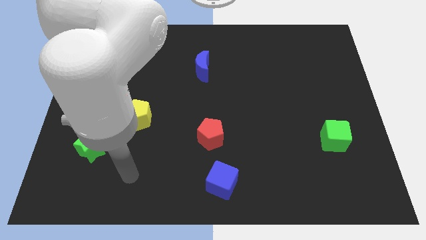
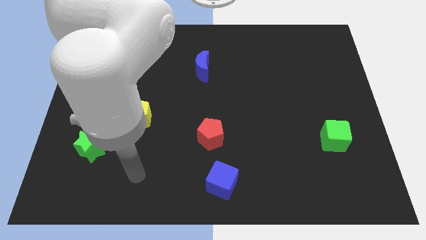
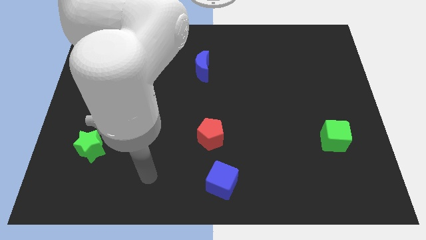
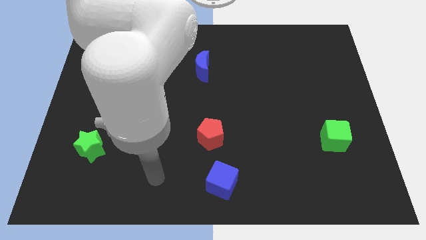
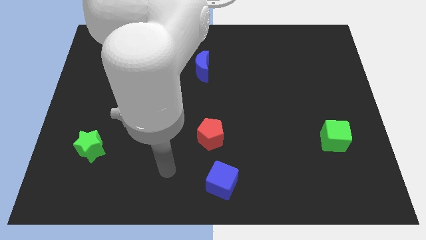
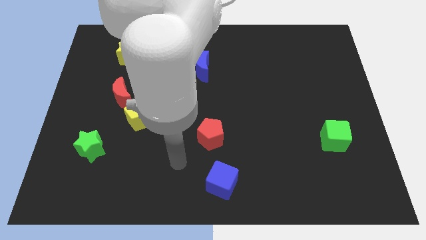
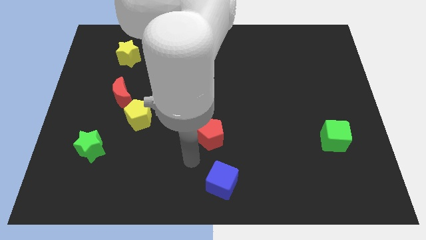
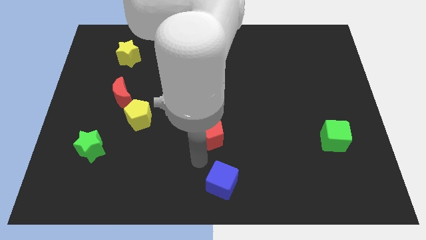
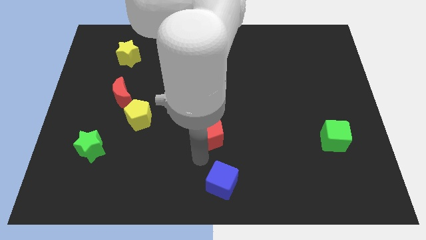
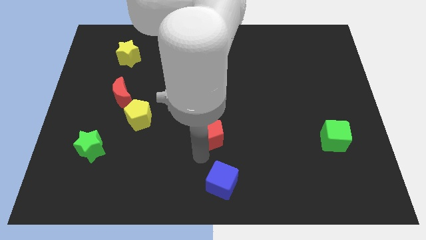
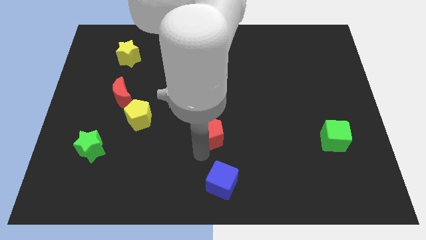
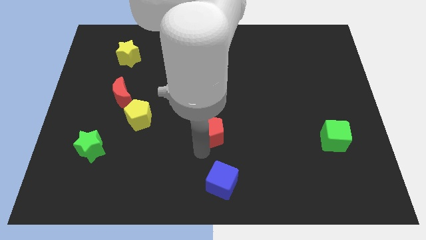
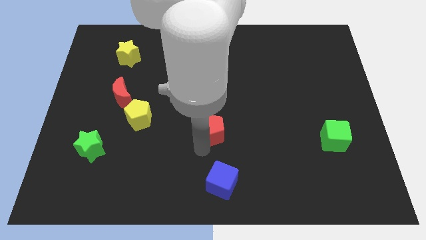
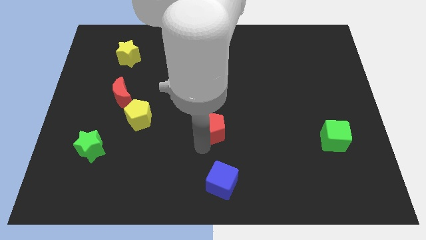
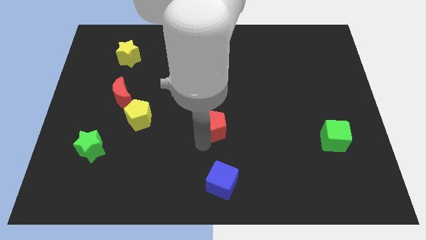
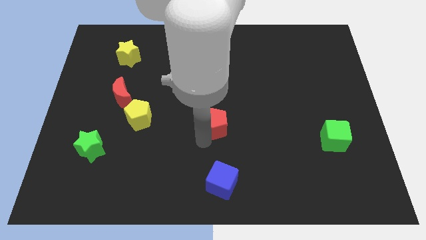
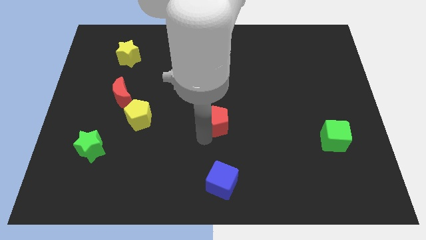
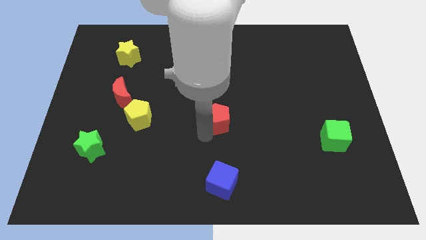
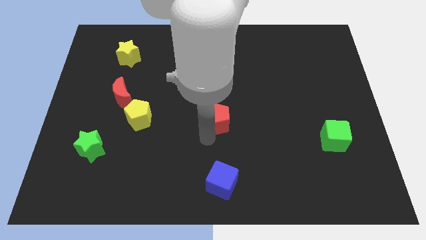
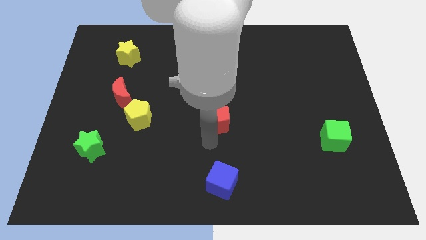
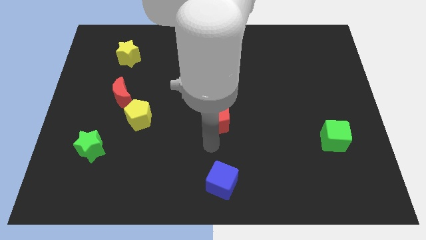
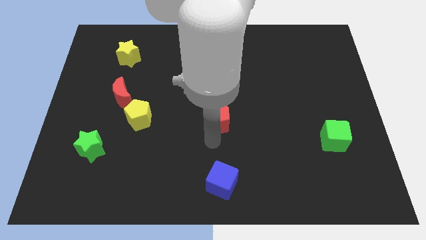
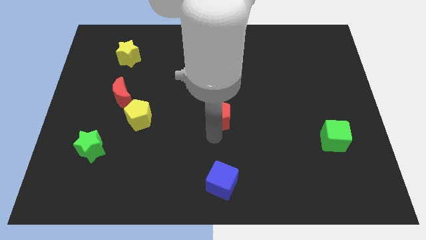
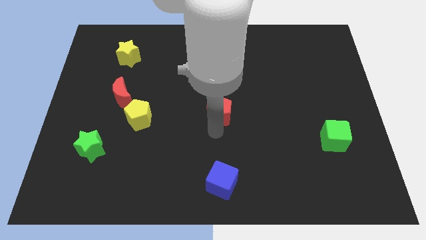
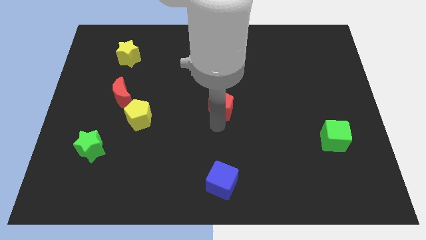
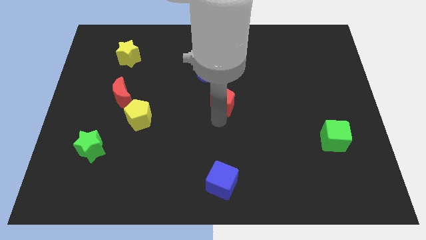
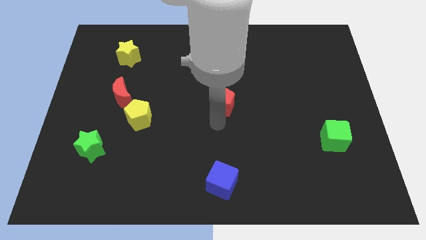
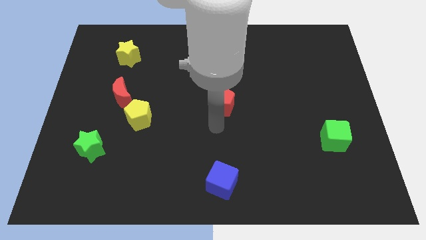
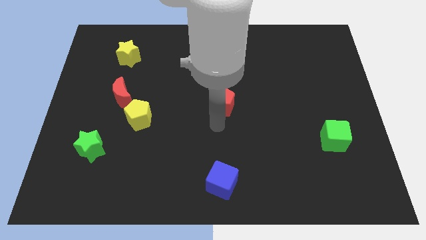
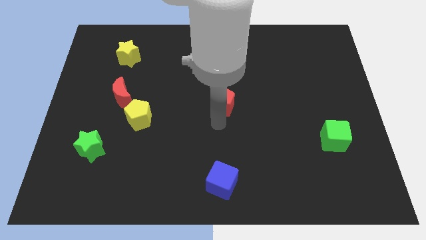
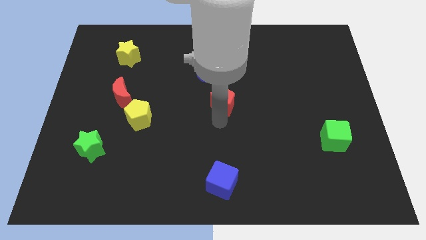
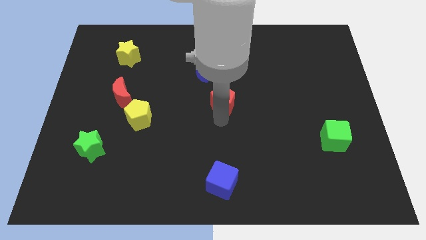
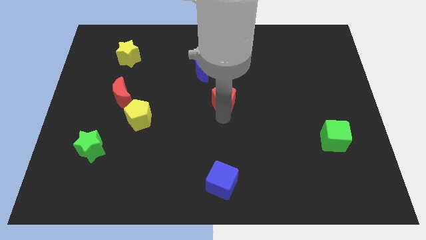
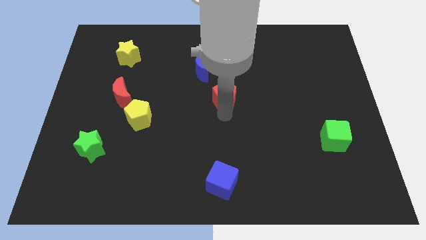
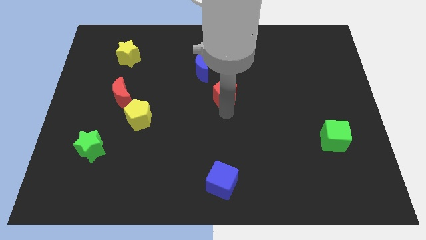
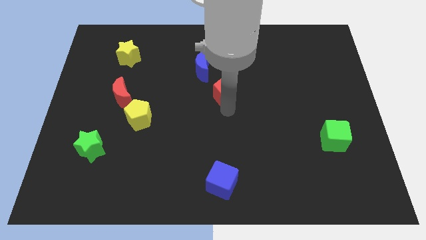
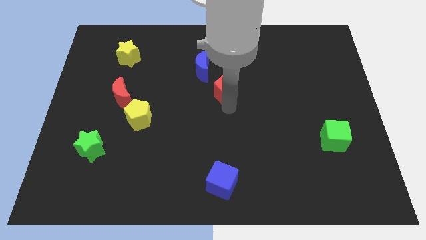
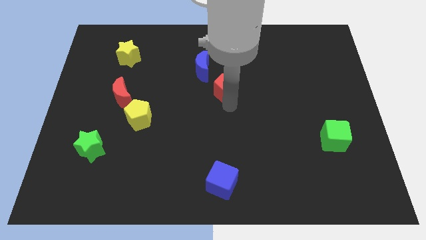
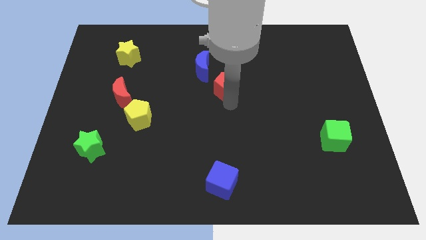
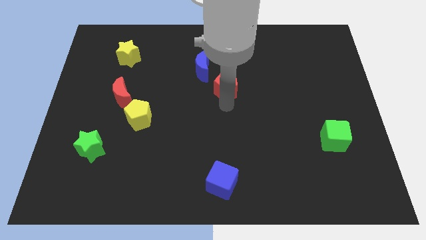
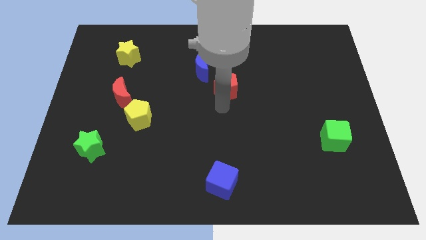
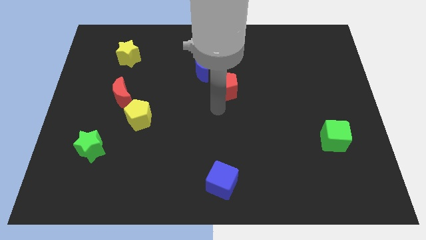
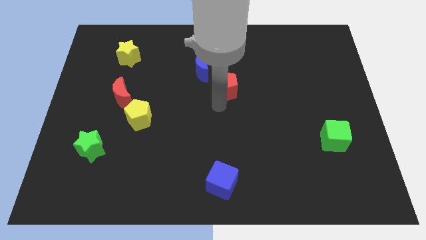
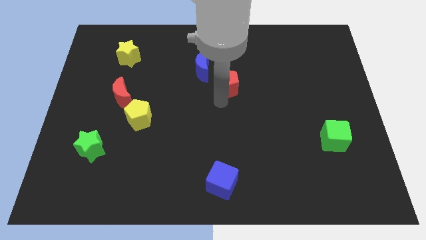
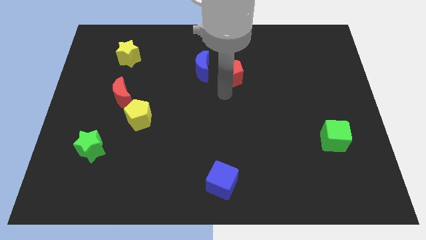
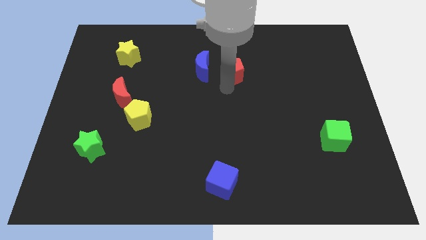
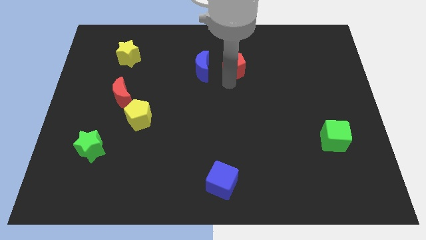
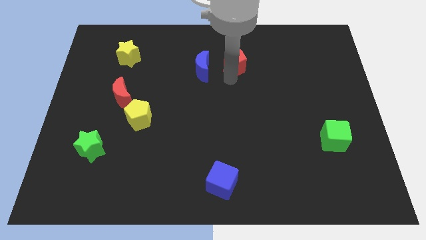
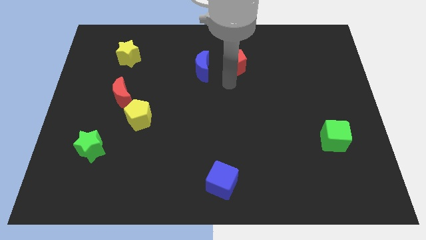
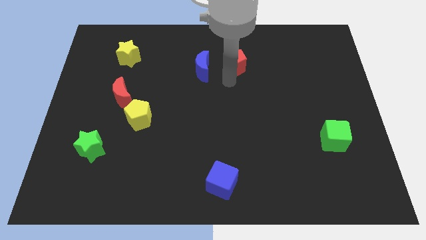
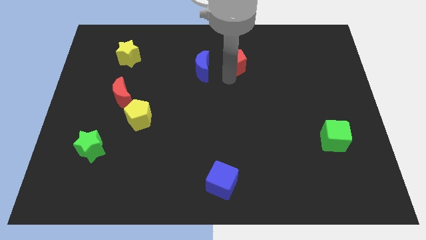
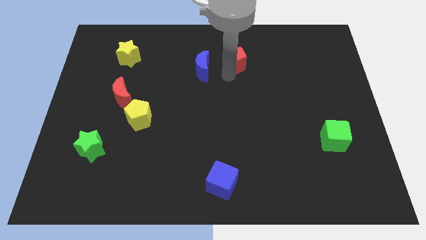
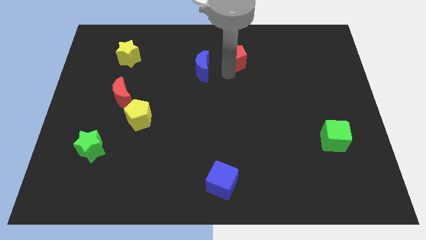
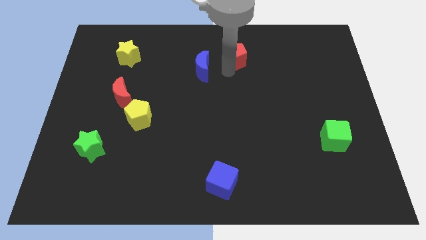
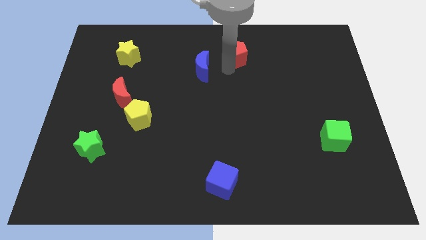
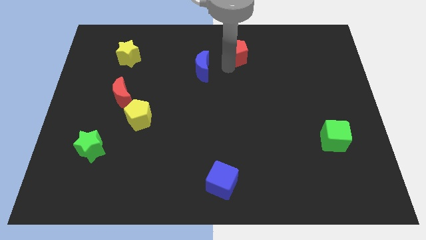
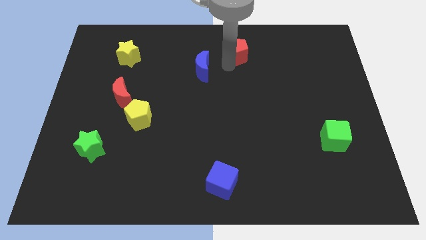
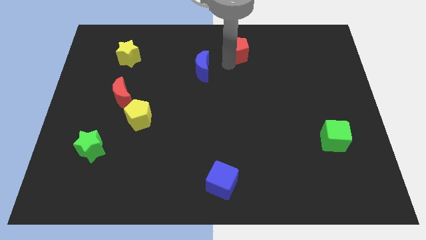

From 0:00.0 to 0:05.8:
move the red pentagon to the top

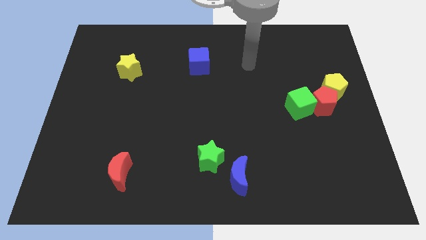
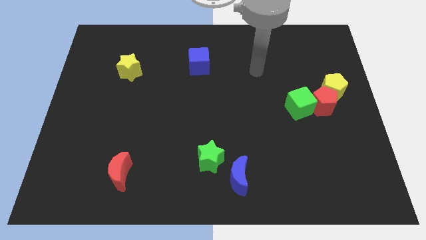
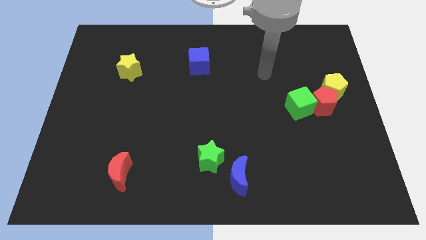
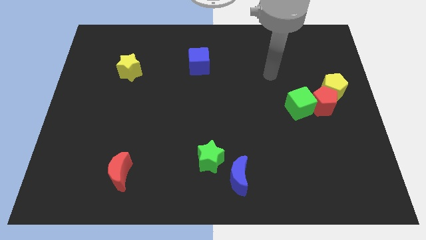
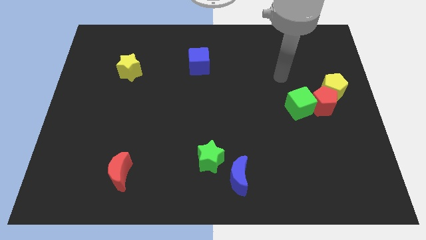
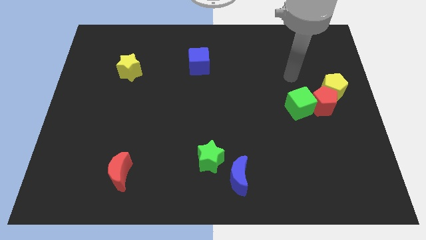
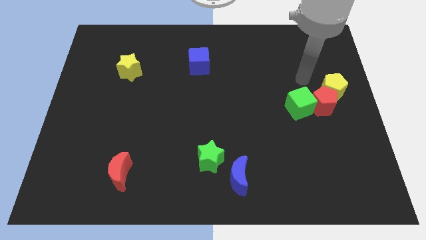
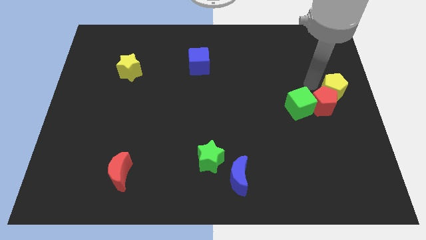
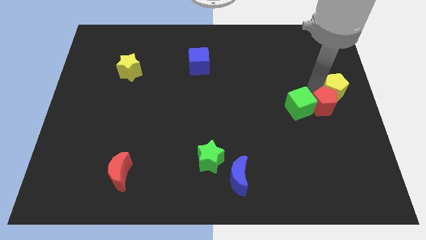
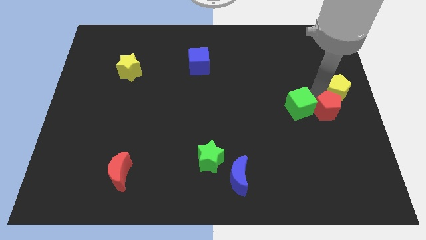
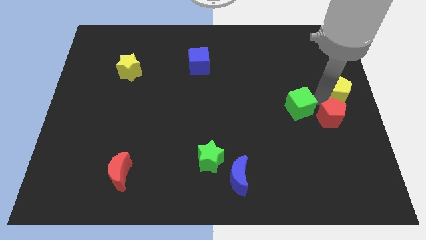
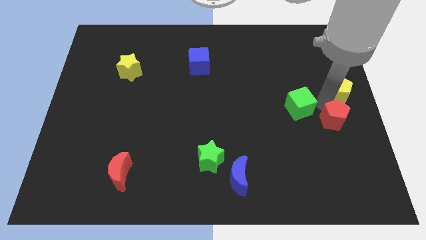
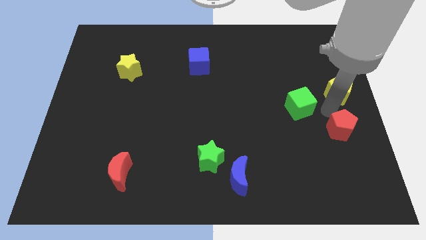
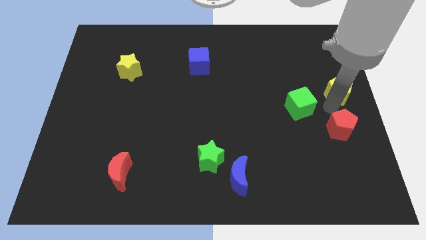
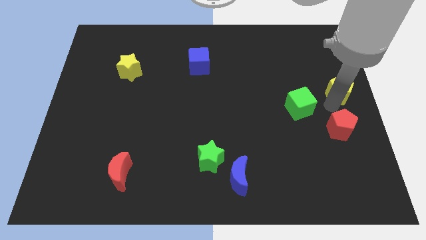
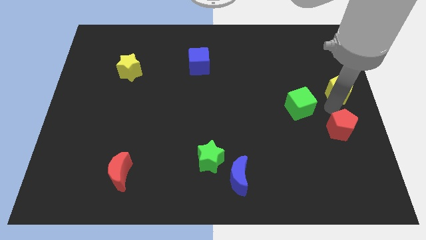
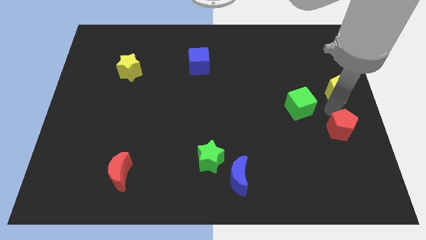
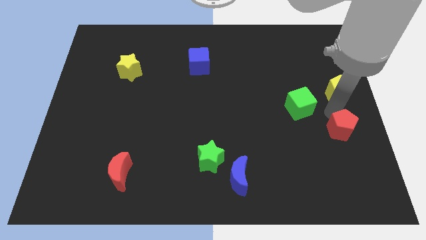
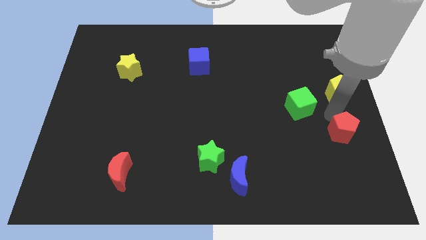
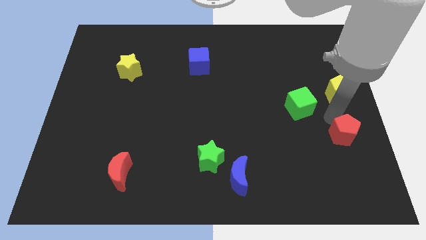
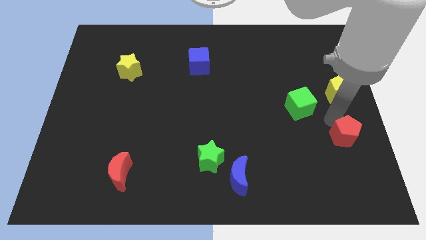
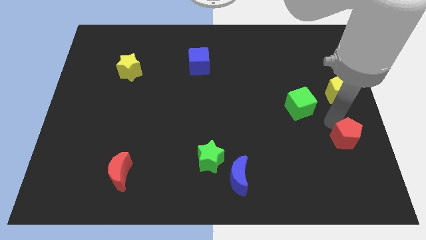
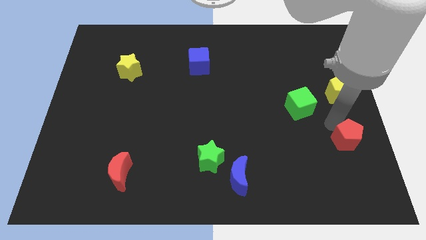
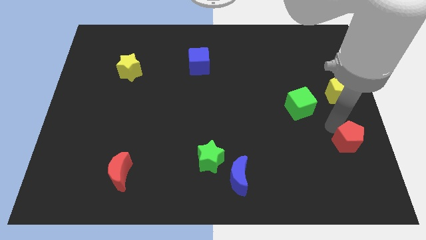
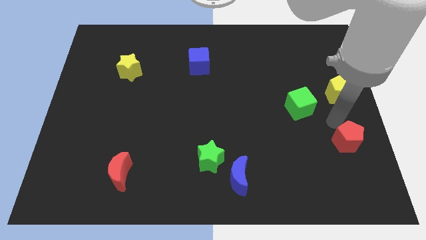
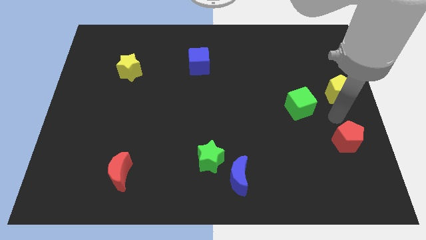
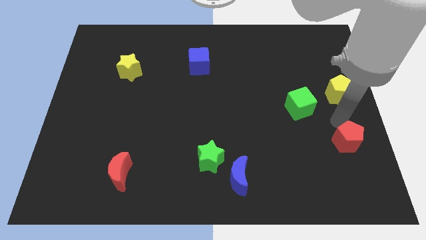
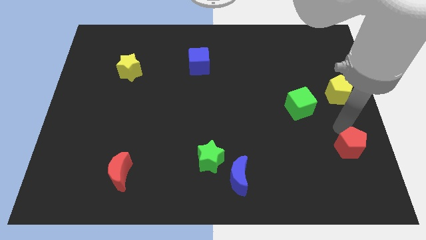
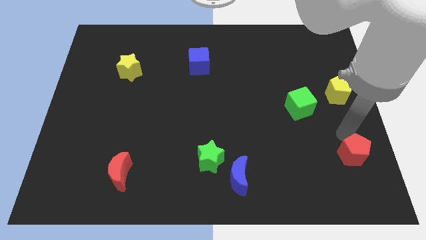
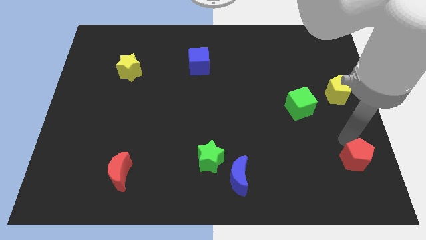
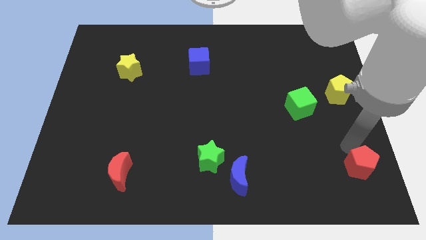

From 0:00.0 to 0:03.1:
move the red pentagon to the bottom right
